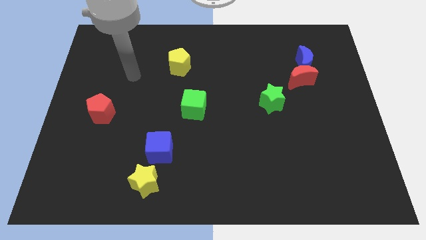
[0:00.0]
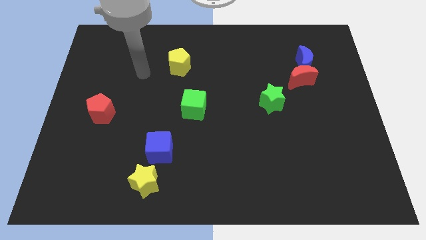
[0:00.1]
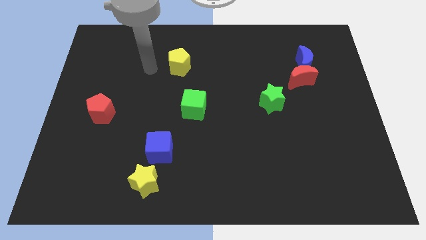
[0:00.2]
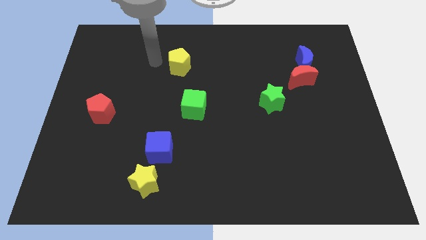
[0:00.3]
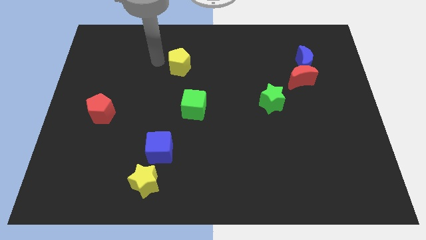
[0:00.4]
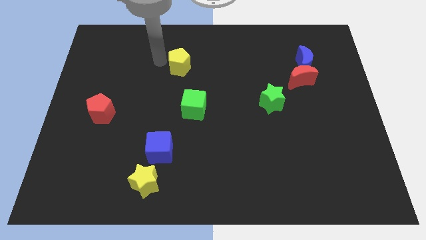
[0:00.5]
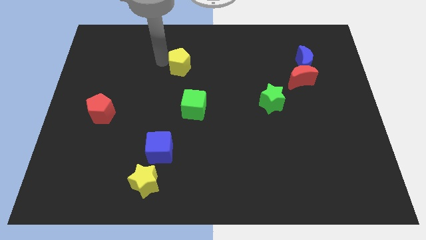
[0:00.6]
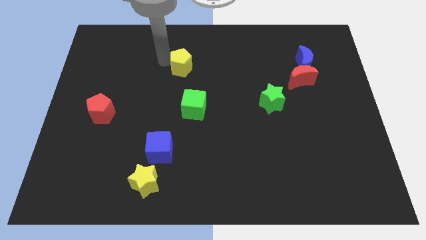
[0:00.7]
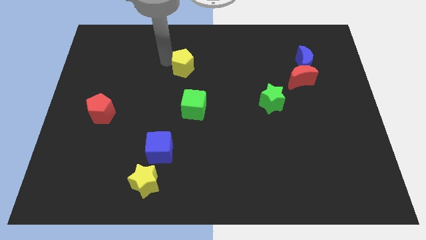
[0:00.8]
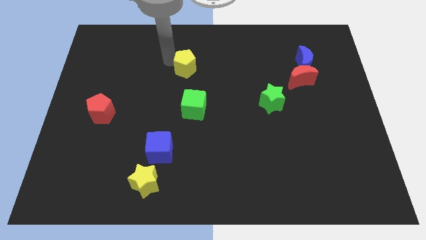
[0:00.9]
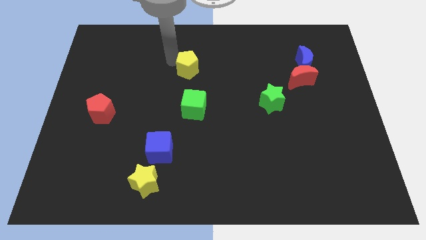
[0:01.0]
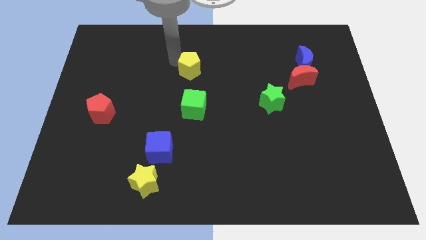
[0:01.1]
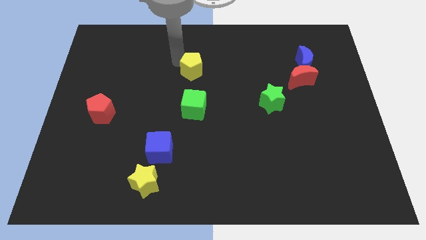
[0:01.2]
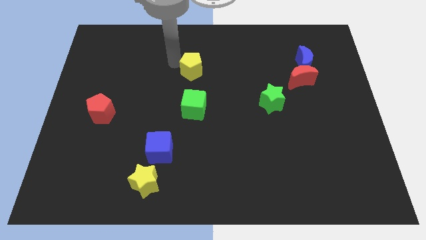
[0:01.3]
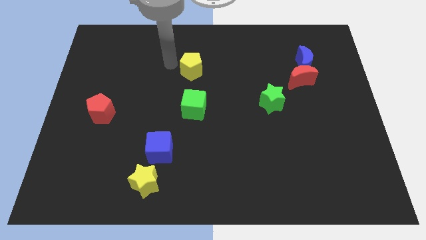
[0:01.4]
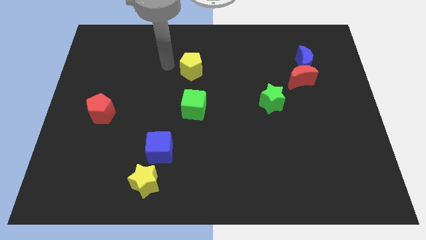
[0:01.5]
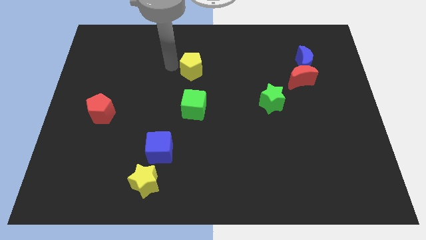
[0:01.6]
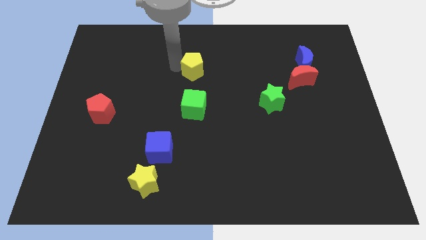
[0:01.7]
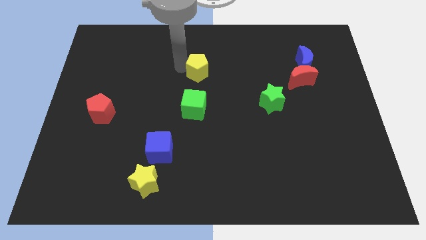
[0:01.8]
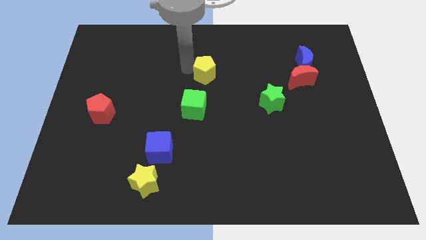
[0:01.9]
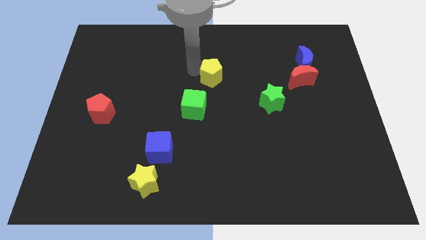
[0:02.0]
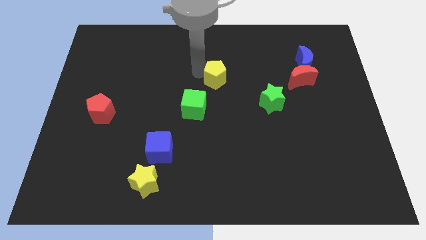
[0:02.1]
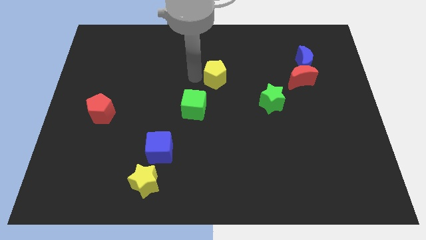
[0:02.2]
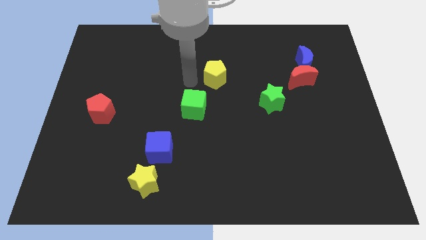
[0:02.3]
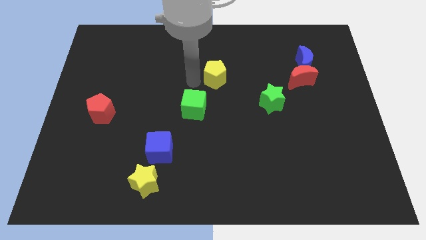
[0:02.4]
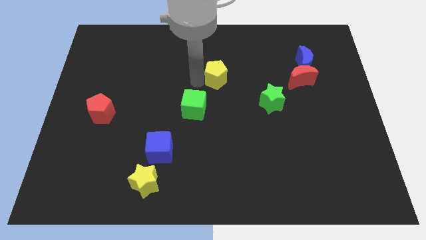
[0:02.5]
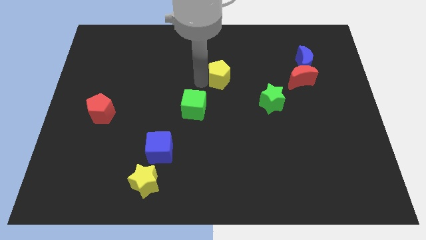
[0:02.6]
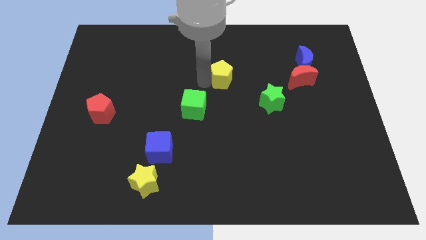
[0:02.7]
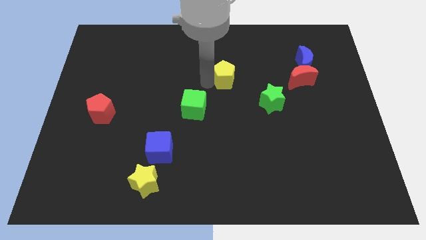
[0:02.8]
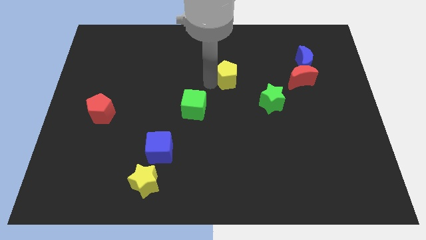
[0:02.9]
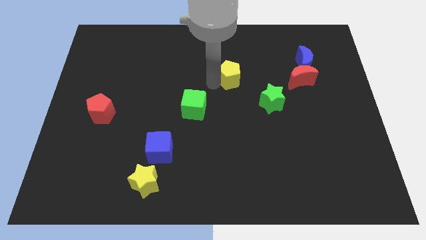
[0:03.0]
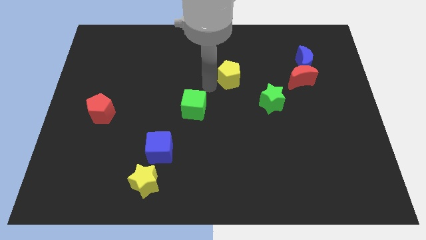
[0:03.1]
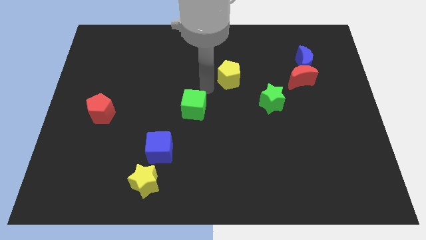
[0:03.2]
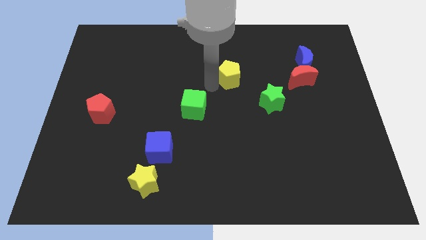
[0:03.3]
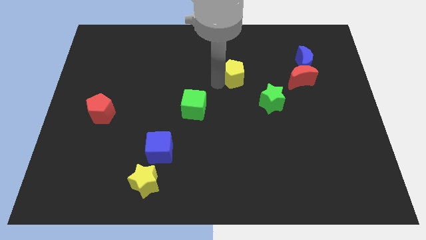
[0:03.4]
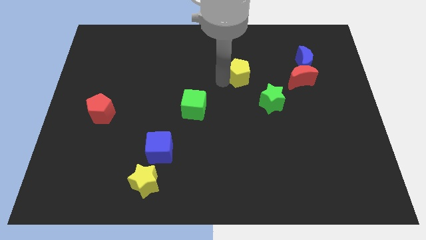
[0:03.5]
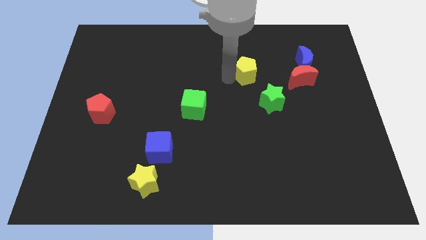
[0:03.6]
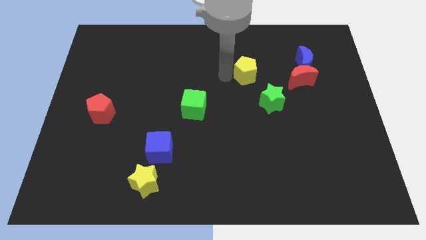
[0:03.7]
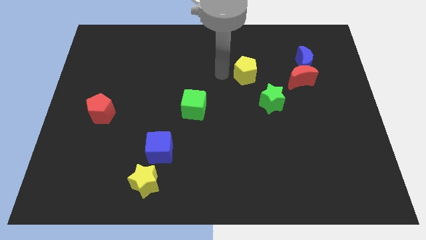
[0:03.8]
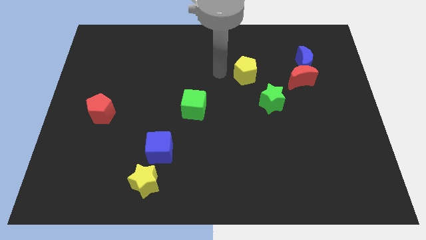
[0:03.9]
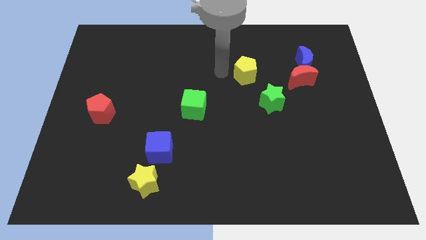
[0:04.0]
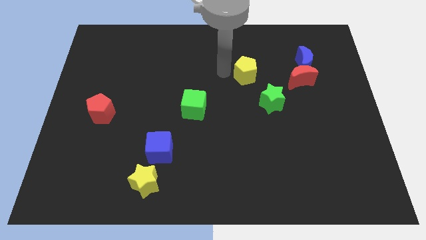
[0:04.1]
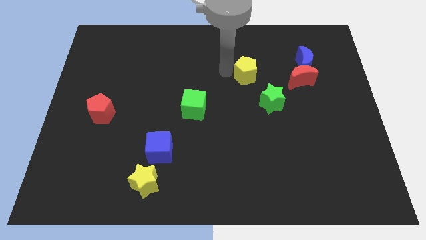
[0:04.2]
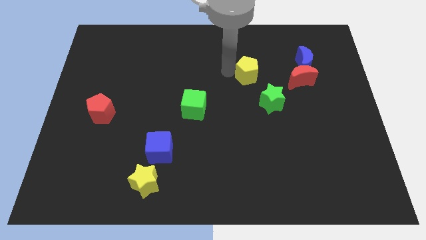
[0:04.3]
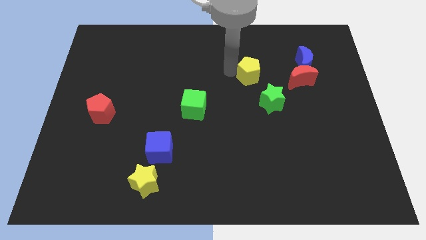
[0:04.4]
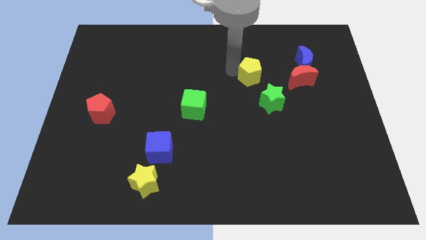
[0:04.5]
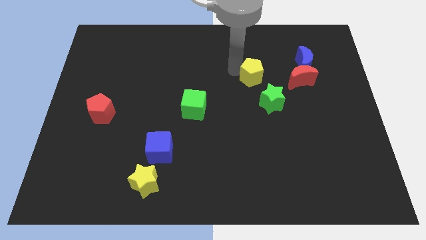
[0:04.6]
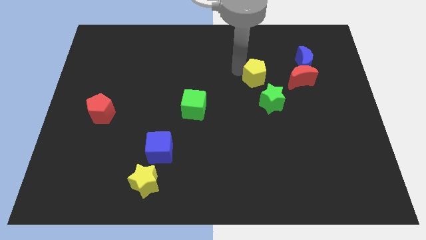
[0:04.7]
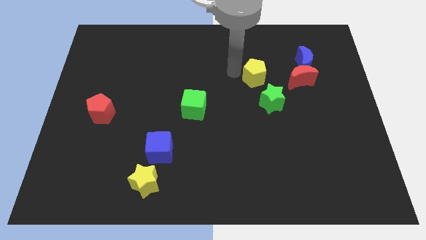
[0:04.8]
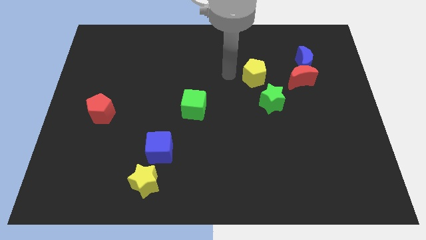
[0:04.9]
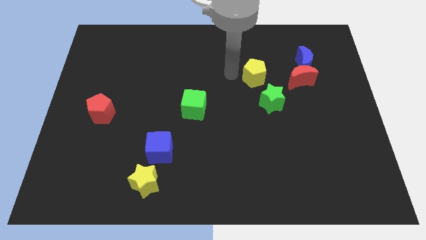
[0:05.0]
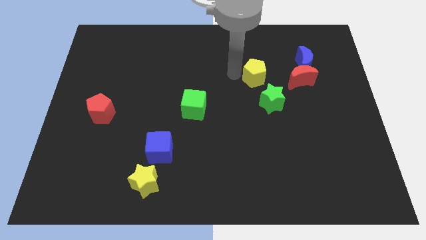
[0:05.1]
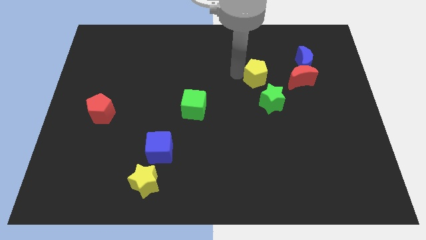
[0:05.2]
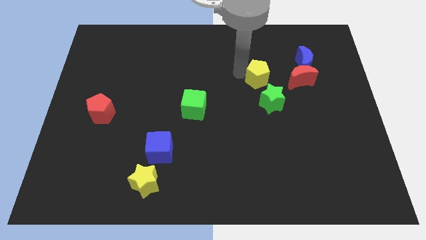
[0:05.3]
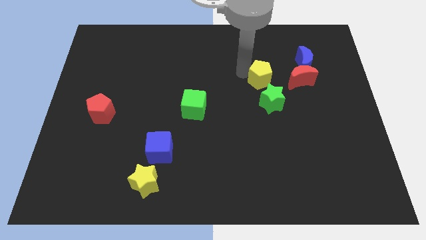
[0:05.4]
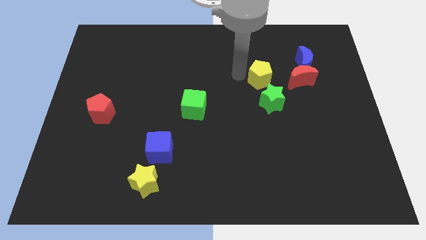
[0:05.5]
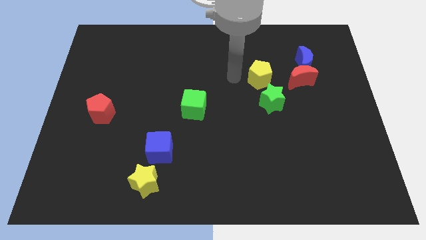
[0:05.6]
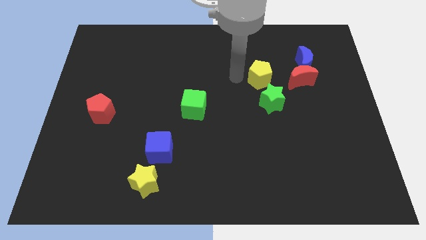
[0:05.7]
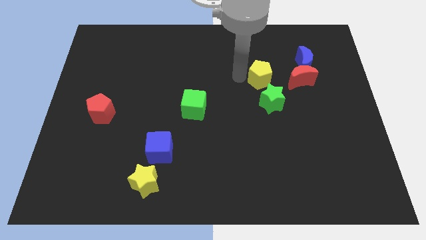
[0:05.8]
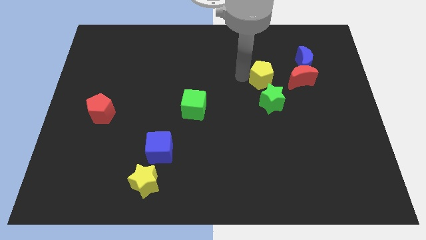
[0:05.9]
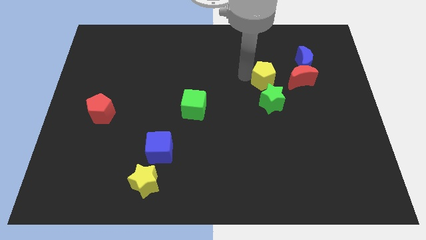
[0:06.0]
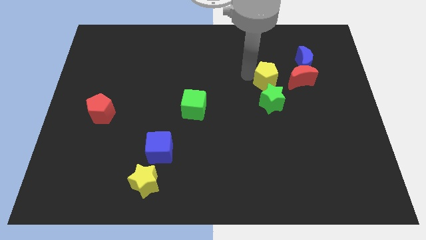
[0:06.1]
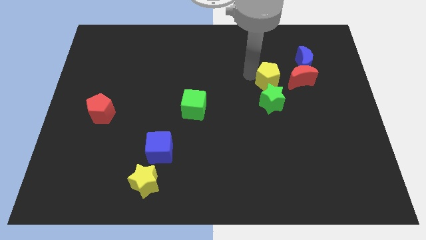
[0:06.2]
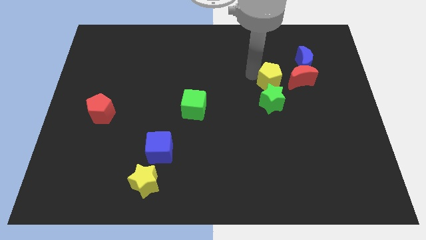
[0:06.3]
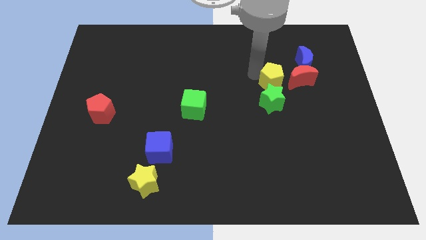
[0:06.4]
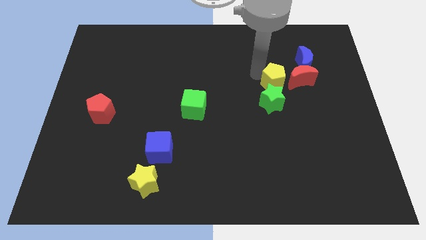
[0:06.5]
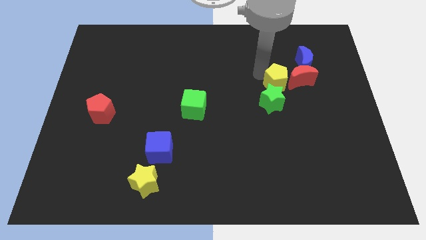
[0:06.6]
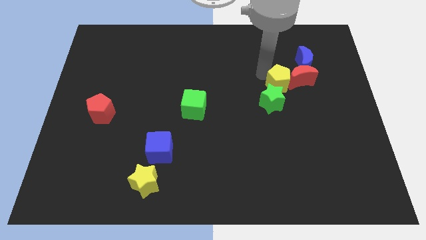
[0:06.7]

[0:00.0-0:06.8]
put the yellow pentagon to the red moon
